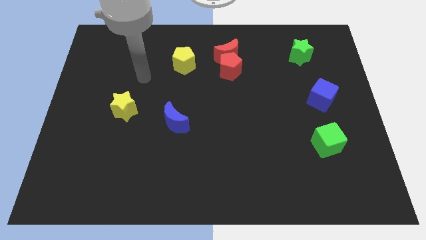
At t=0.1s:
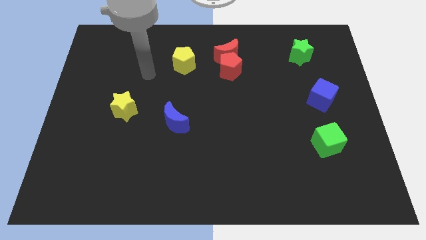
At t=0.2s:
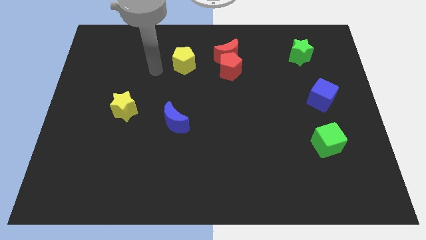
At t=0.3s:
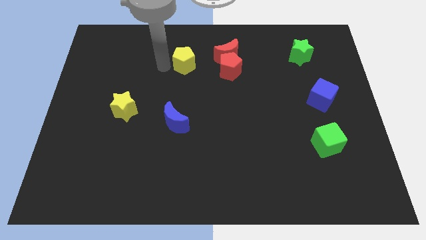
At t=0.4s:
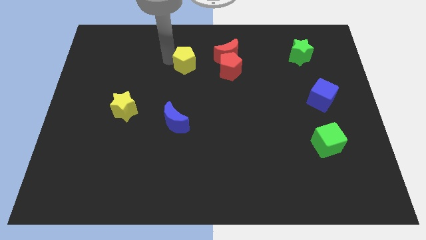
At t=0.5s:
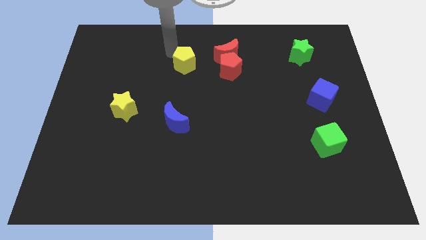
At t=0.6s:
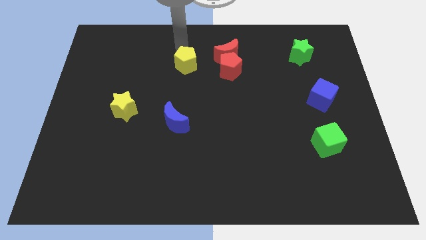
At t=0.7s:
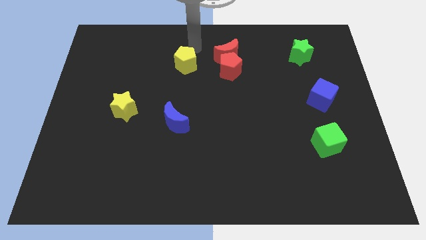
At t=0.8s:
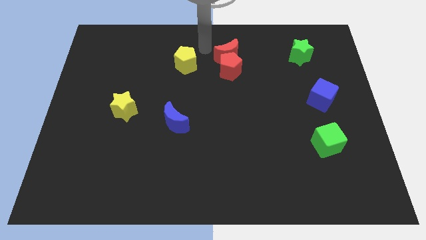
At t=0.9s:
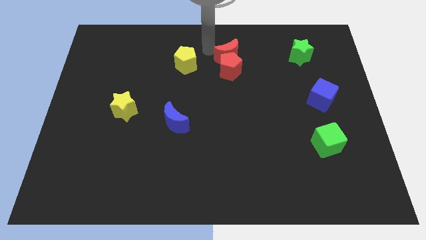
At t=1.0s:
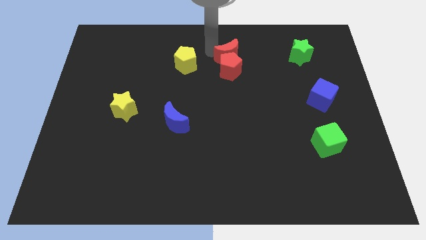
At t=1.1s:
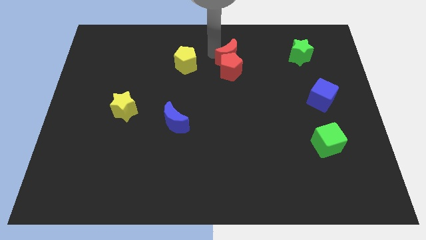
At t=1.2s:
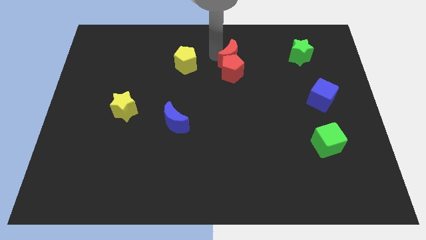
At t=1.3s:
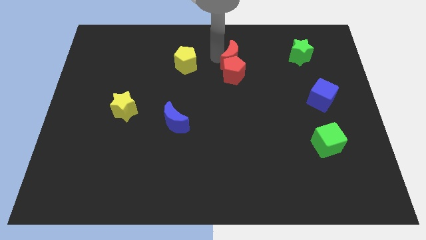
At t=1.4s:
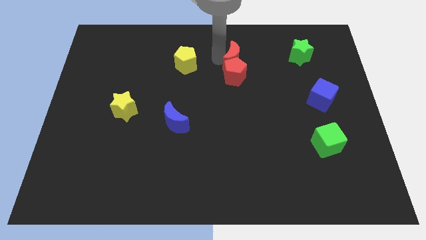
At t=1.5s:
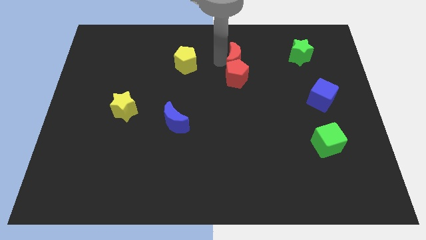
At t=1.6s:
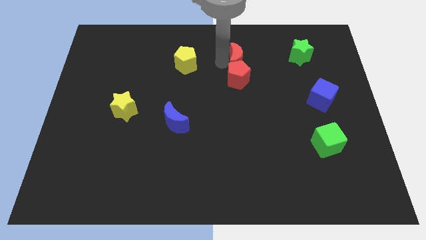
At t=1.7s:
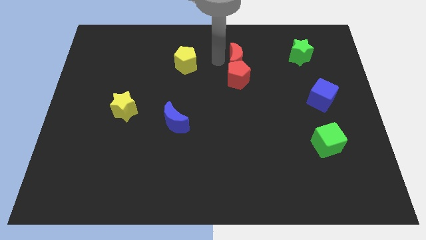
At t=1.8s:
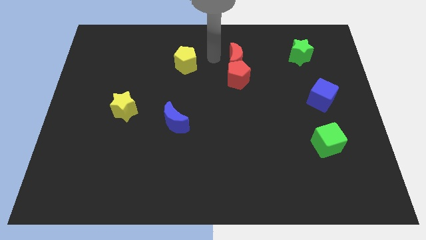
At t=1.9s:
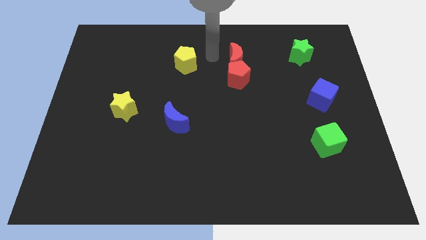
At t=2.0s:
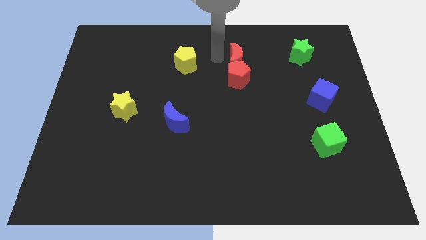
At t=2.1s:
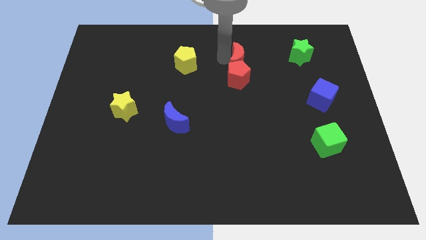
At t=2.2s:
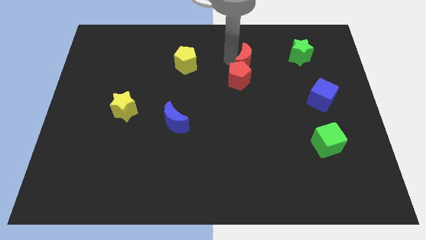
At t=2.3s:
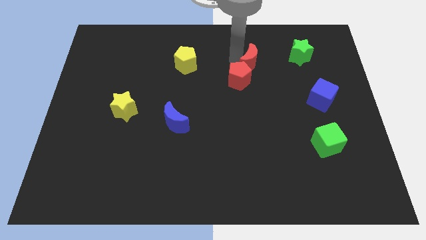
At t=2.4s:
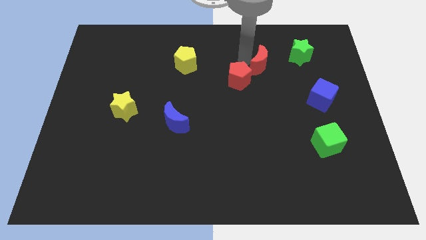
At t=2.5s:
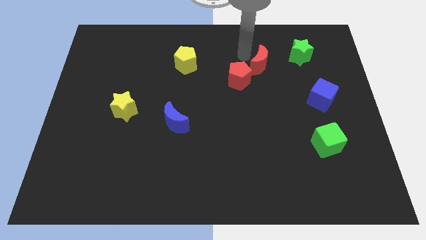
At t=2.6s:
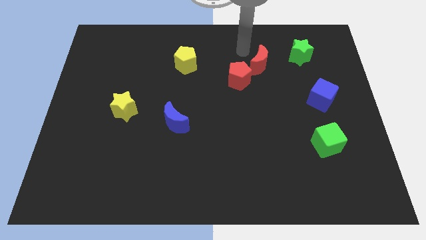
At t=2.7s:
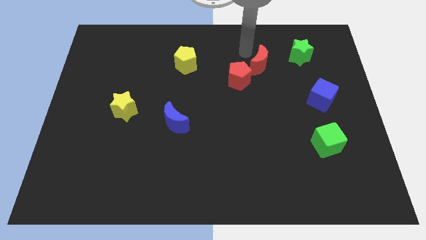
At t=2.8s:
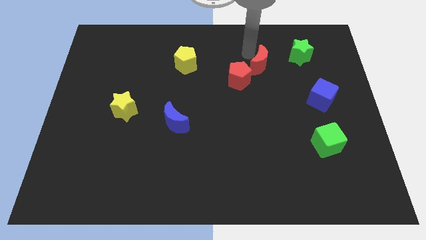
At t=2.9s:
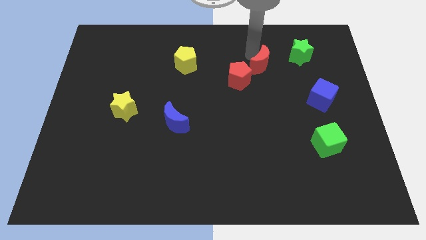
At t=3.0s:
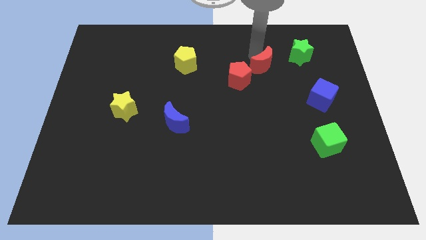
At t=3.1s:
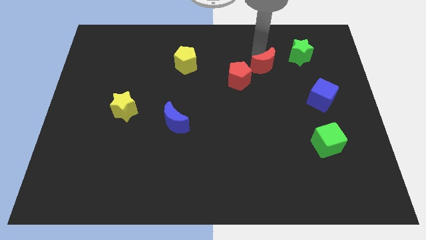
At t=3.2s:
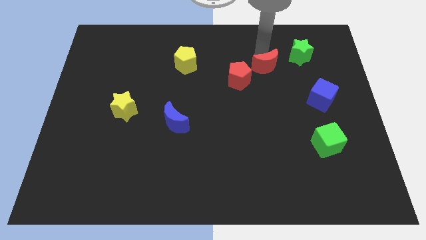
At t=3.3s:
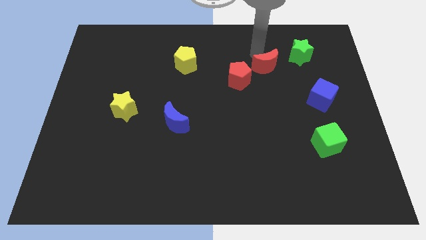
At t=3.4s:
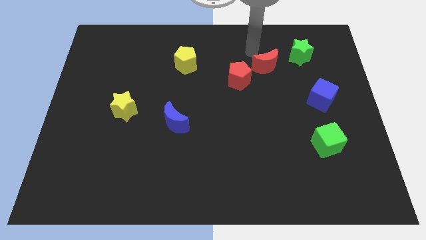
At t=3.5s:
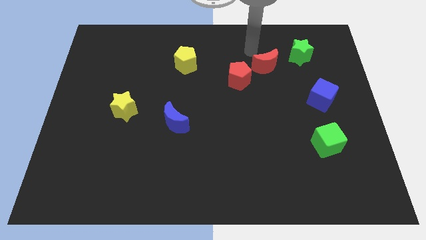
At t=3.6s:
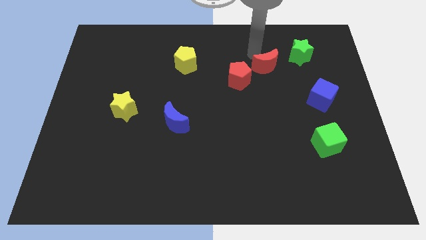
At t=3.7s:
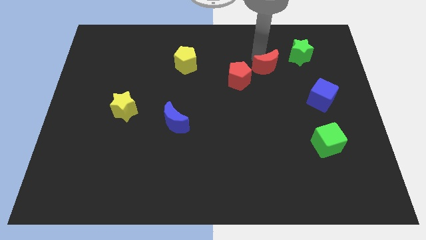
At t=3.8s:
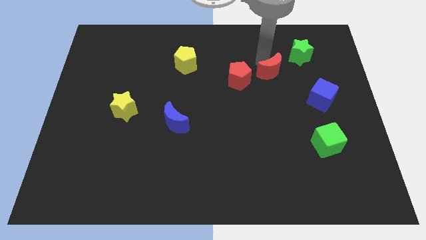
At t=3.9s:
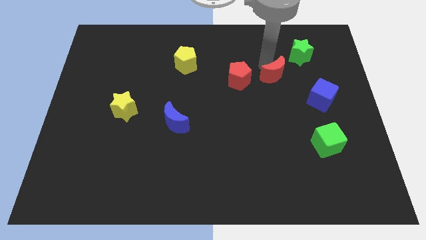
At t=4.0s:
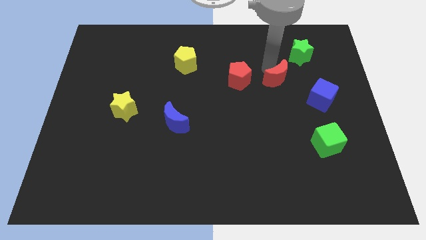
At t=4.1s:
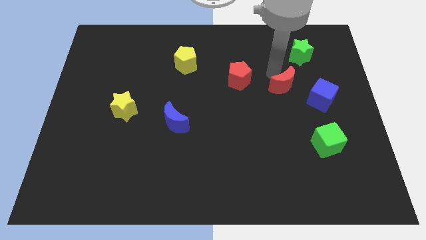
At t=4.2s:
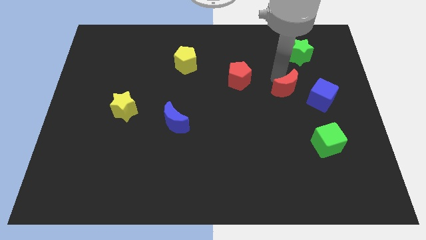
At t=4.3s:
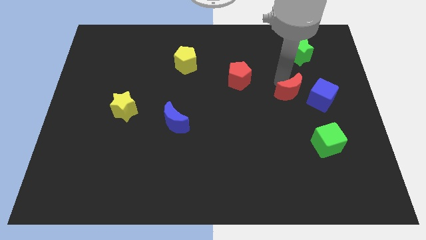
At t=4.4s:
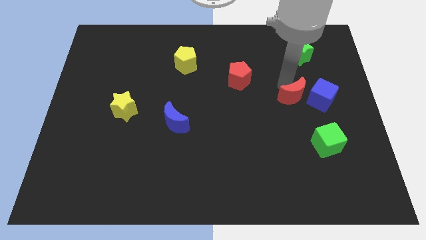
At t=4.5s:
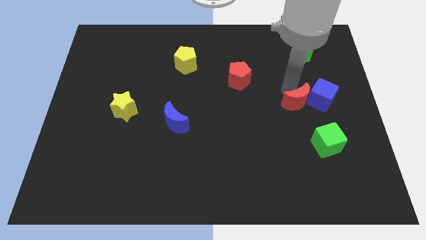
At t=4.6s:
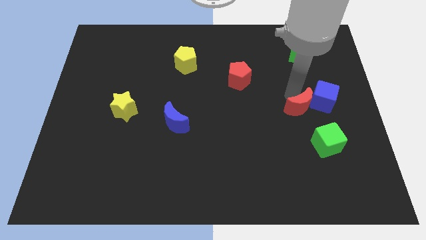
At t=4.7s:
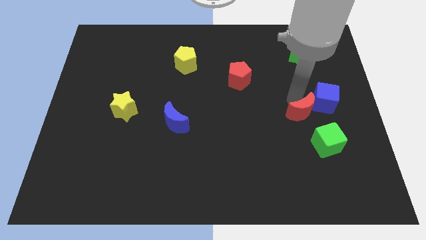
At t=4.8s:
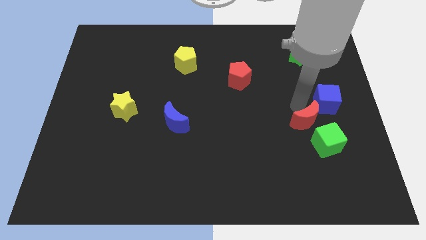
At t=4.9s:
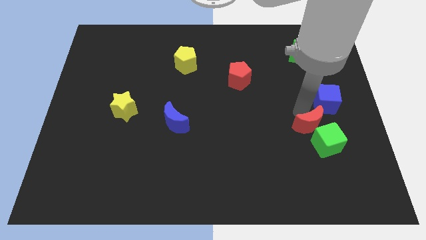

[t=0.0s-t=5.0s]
slide the red moon towards the green cube

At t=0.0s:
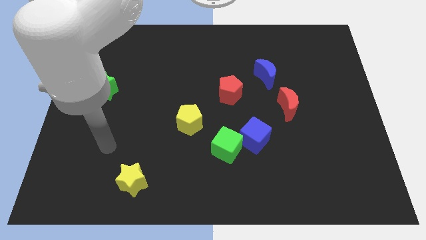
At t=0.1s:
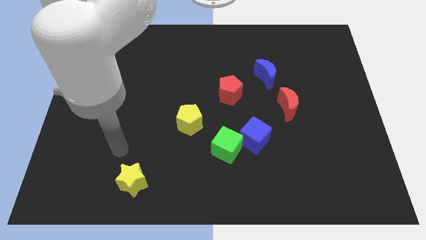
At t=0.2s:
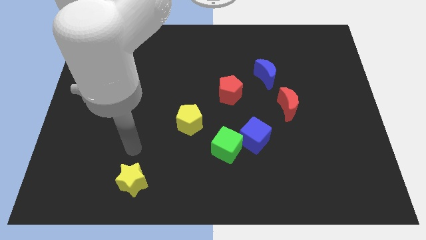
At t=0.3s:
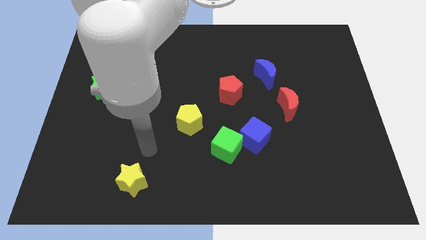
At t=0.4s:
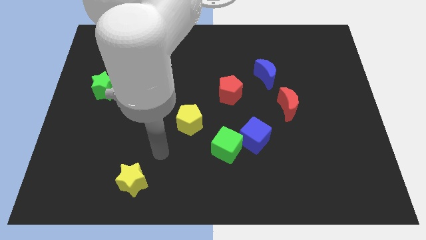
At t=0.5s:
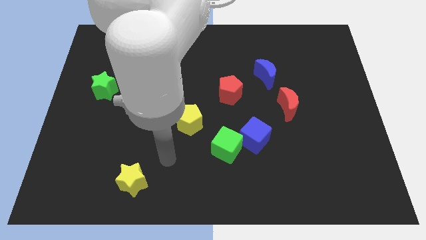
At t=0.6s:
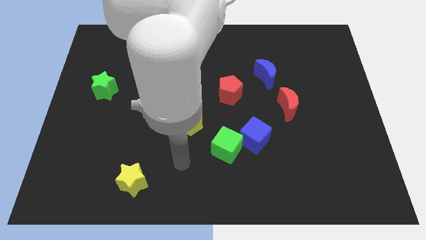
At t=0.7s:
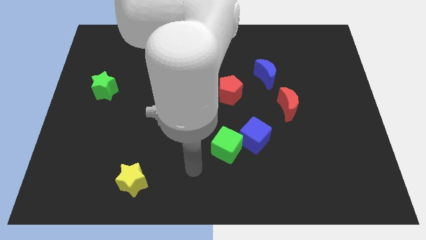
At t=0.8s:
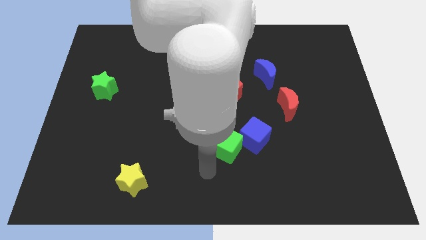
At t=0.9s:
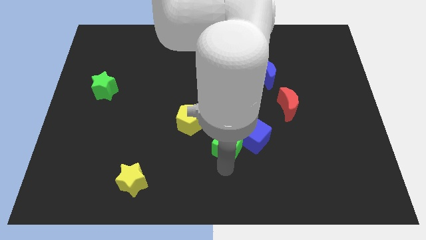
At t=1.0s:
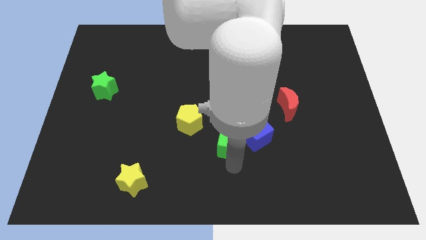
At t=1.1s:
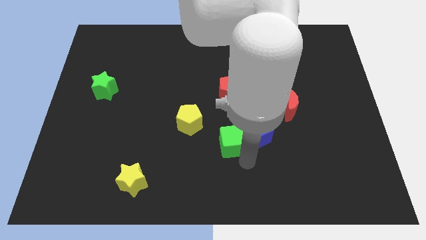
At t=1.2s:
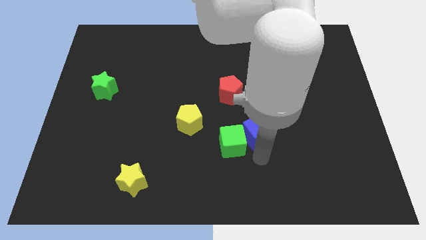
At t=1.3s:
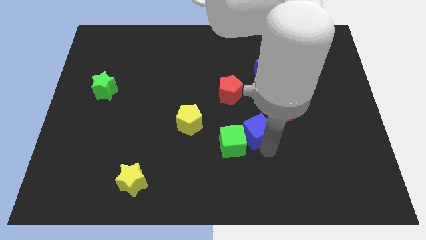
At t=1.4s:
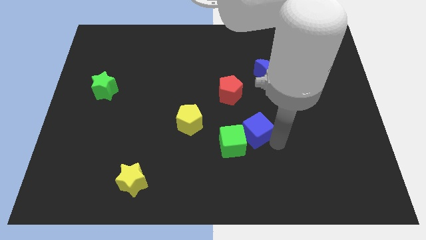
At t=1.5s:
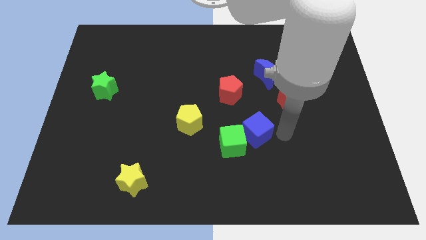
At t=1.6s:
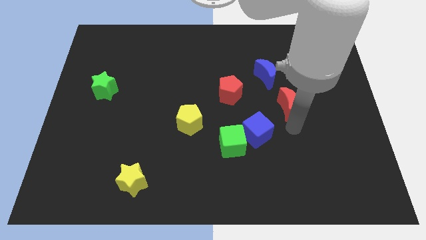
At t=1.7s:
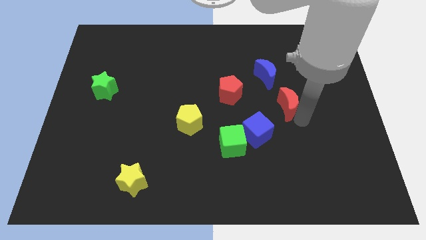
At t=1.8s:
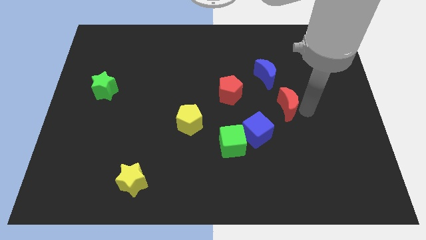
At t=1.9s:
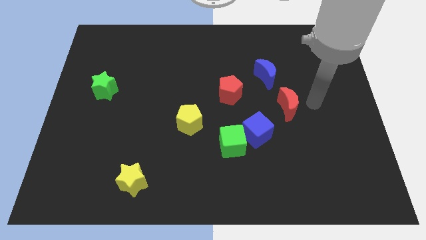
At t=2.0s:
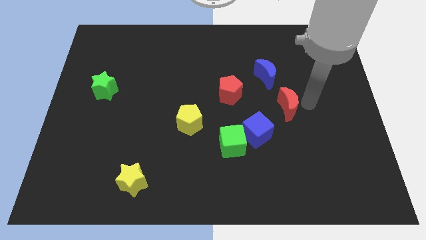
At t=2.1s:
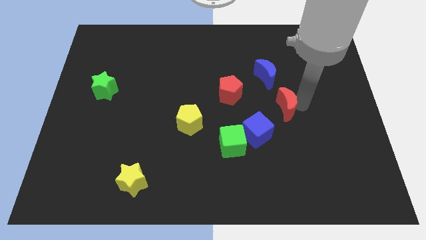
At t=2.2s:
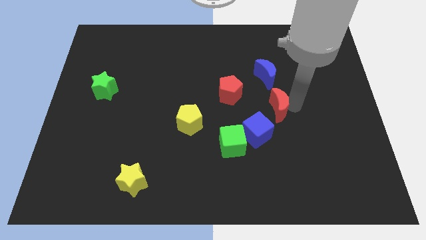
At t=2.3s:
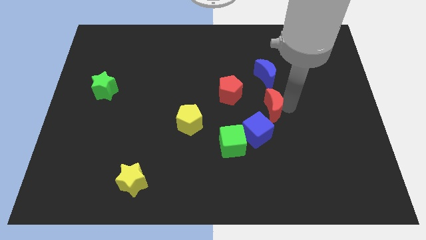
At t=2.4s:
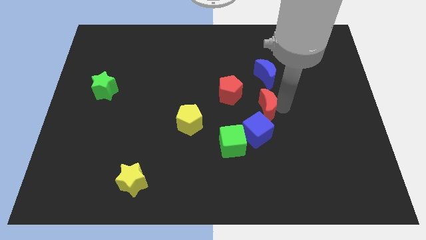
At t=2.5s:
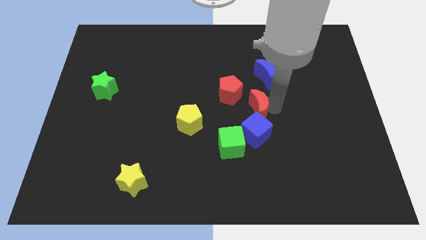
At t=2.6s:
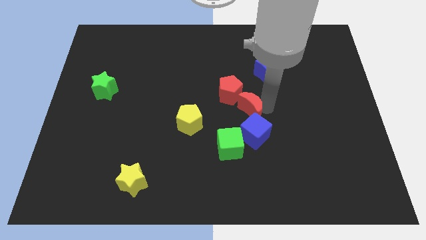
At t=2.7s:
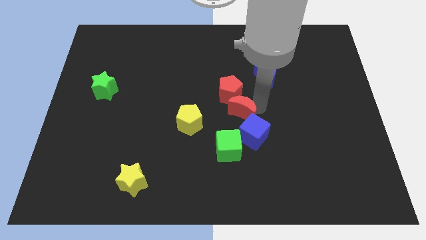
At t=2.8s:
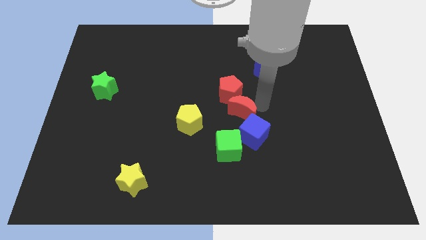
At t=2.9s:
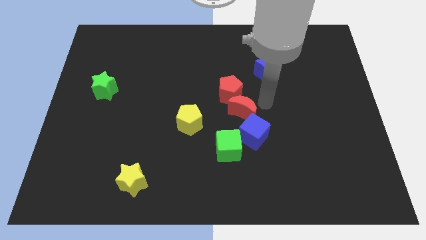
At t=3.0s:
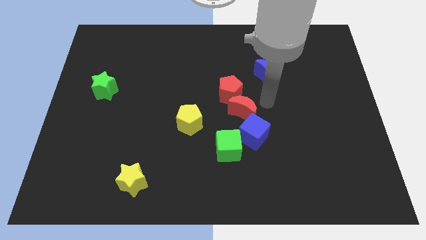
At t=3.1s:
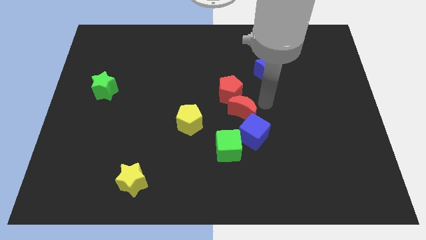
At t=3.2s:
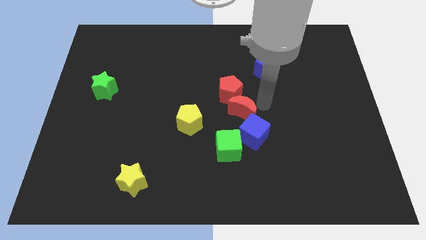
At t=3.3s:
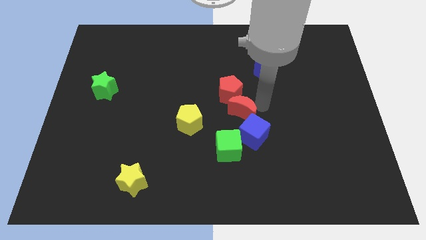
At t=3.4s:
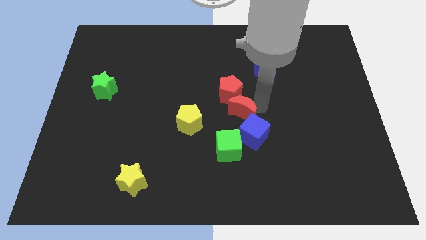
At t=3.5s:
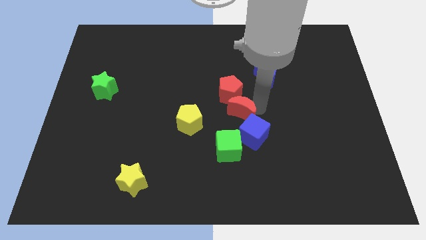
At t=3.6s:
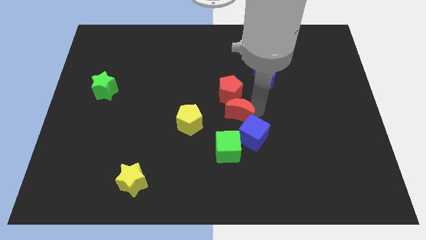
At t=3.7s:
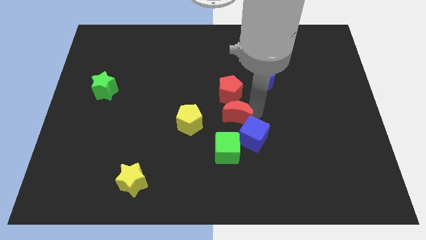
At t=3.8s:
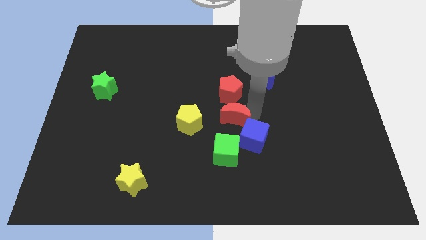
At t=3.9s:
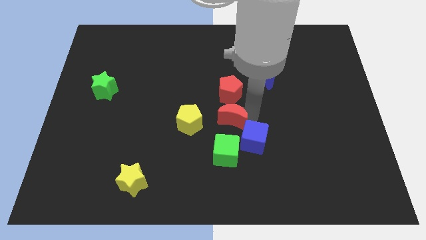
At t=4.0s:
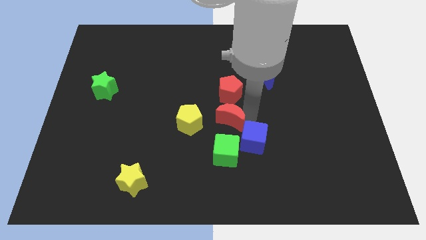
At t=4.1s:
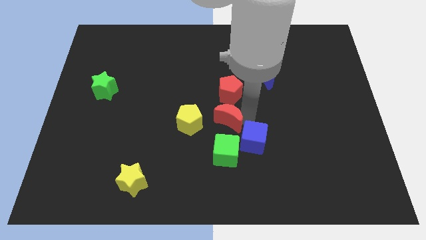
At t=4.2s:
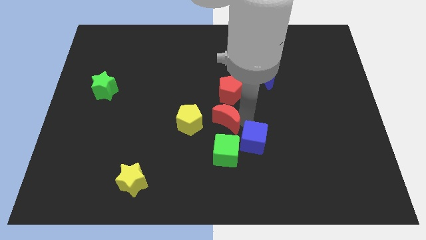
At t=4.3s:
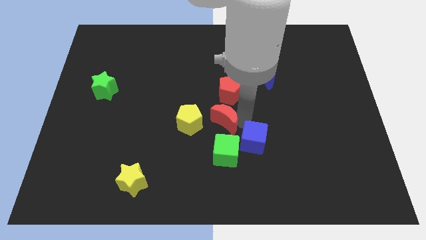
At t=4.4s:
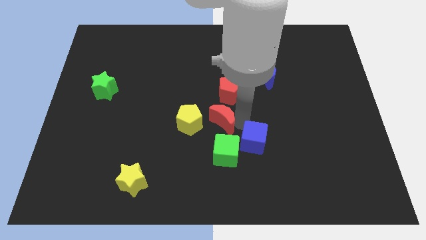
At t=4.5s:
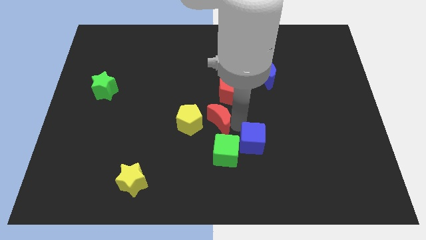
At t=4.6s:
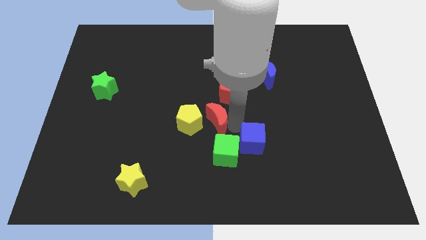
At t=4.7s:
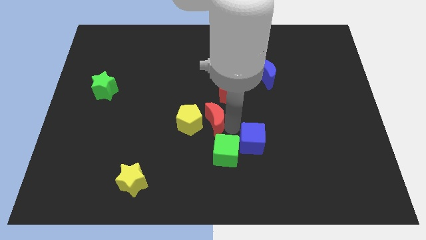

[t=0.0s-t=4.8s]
push the red moon to the yellow pentagon
